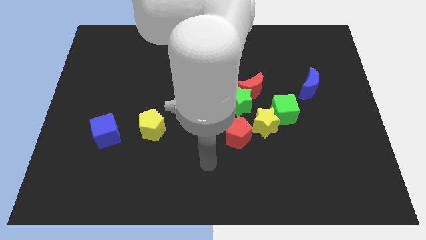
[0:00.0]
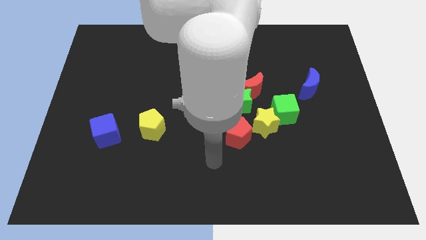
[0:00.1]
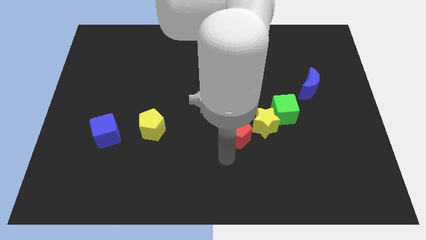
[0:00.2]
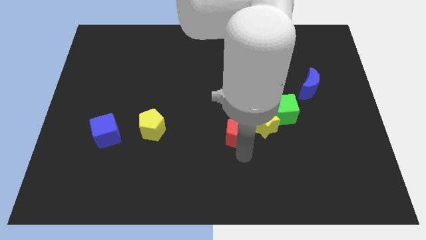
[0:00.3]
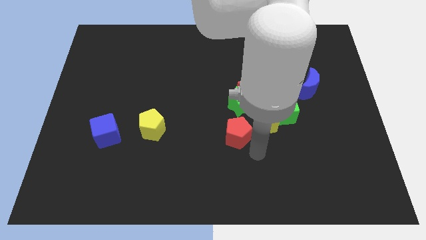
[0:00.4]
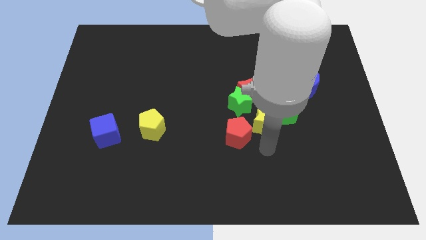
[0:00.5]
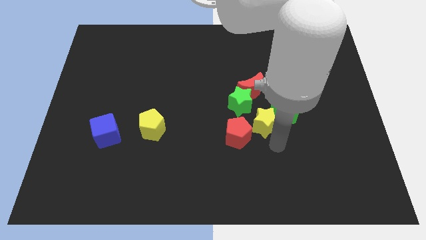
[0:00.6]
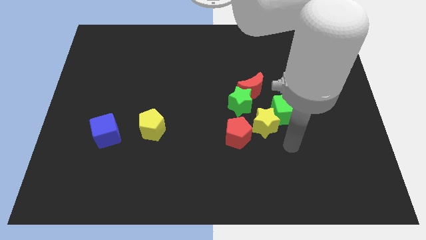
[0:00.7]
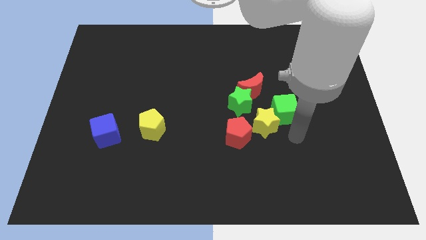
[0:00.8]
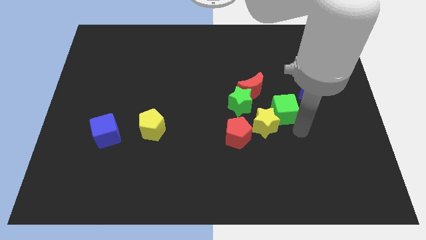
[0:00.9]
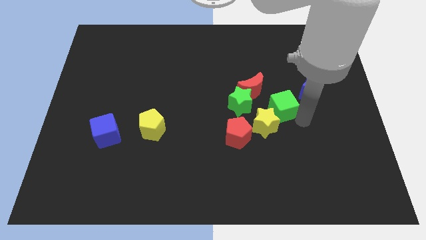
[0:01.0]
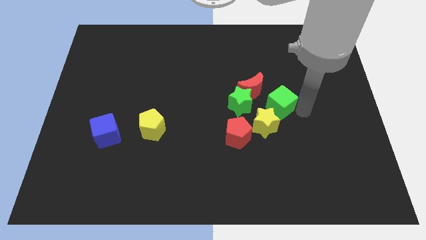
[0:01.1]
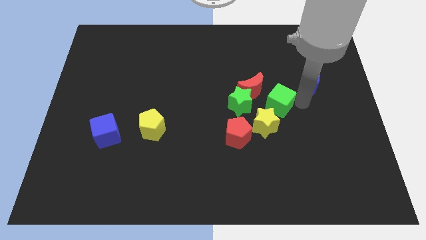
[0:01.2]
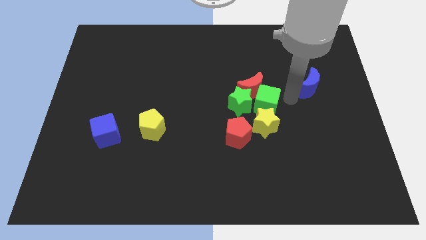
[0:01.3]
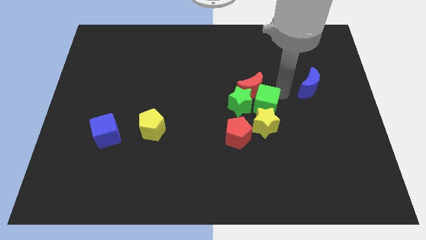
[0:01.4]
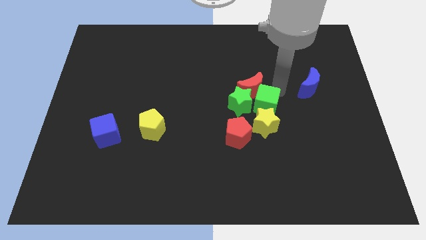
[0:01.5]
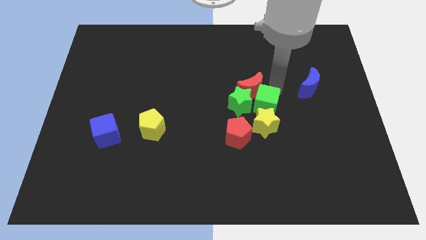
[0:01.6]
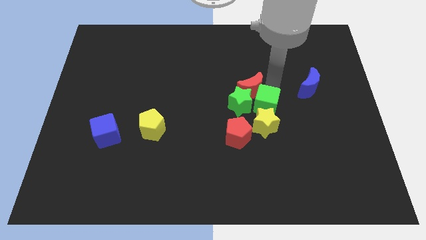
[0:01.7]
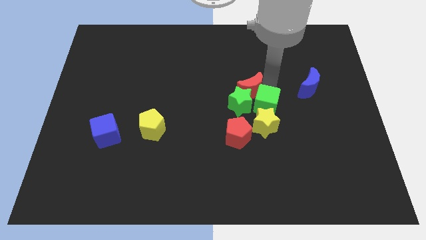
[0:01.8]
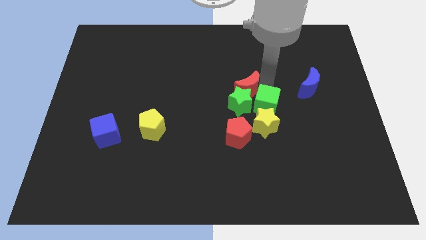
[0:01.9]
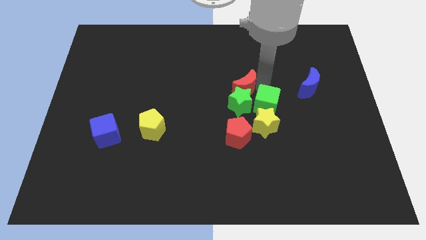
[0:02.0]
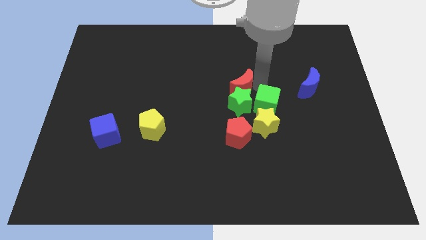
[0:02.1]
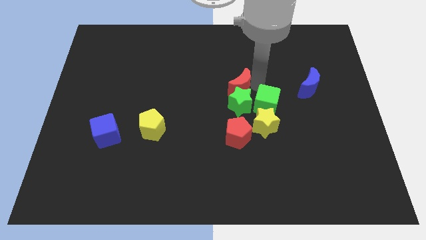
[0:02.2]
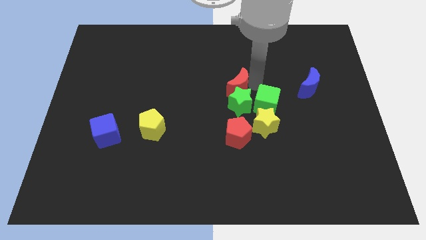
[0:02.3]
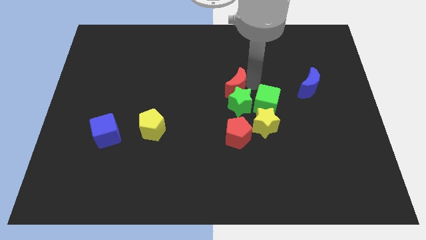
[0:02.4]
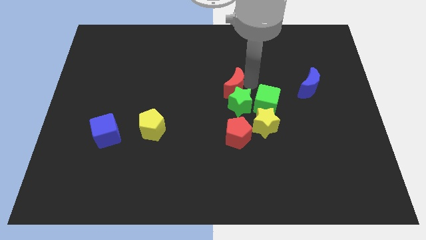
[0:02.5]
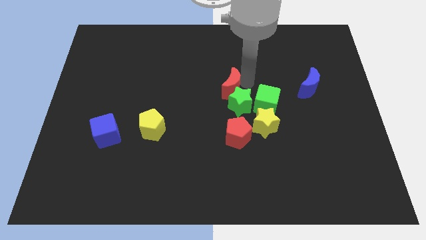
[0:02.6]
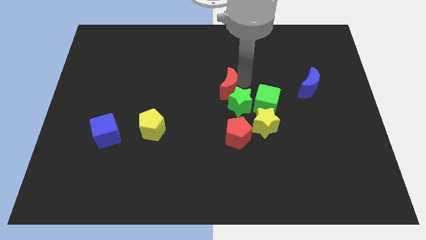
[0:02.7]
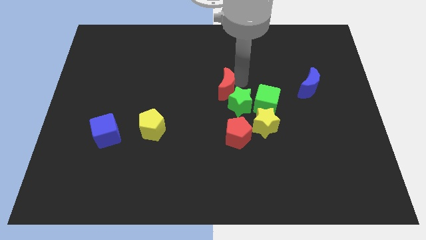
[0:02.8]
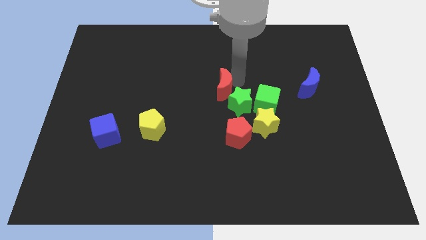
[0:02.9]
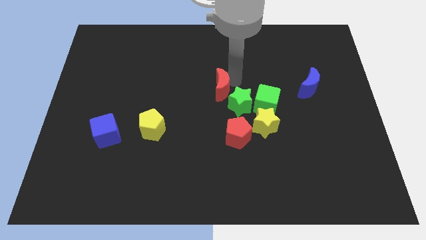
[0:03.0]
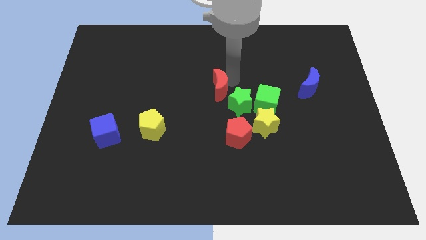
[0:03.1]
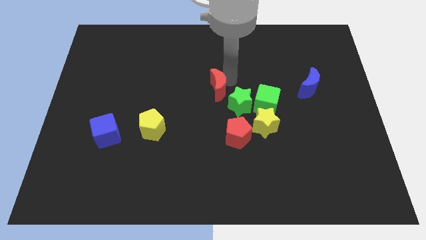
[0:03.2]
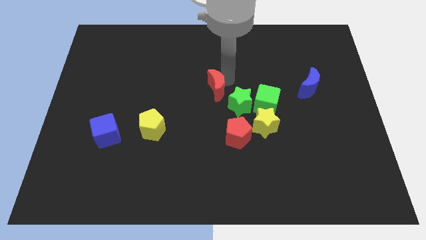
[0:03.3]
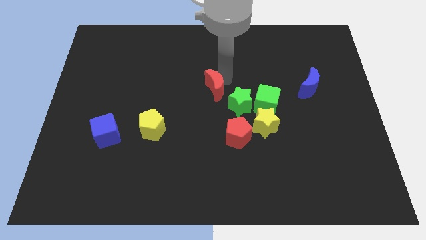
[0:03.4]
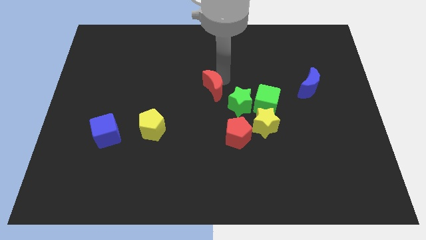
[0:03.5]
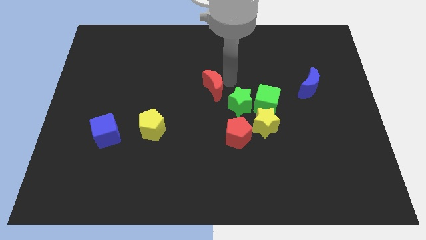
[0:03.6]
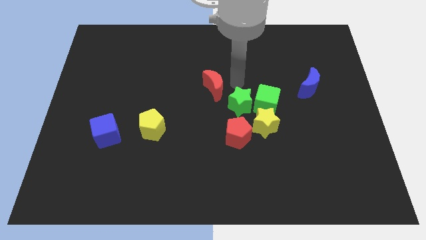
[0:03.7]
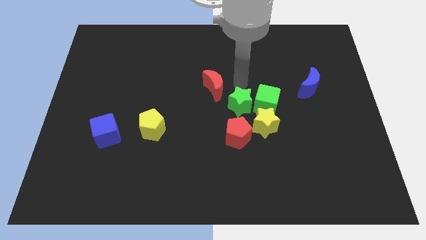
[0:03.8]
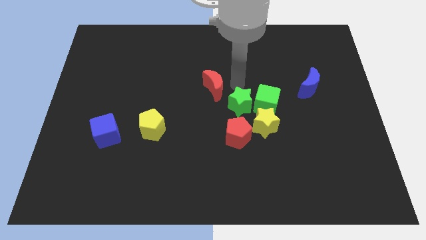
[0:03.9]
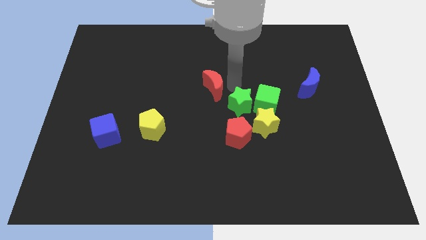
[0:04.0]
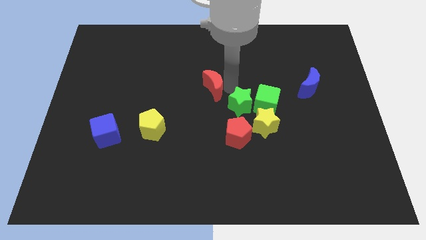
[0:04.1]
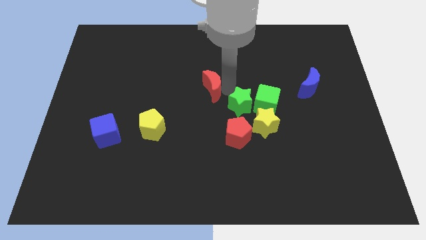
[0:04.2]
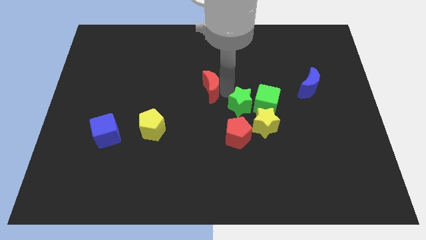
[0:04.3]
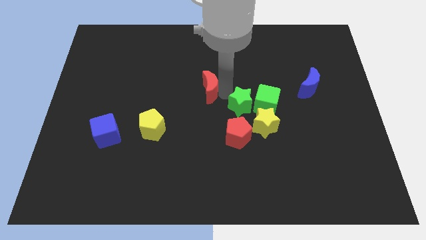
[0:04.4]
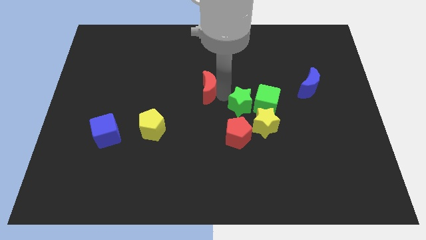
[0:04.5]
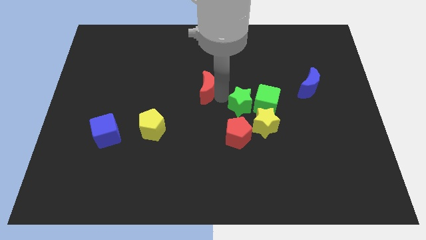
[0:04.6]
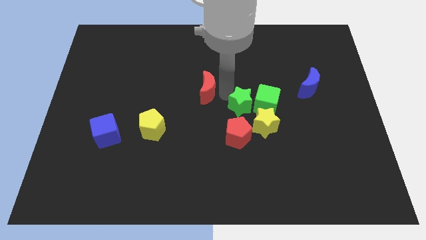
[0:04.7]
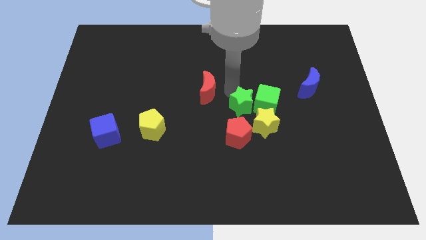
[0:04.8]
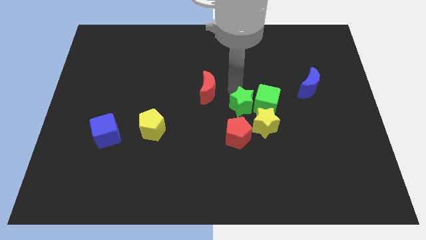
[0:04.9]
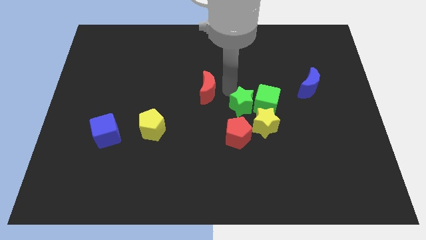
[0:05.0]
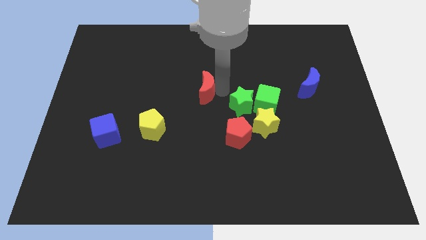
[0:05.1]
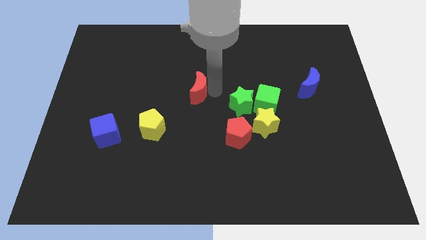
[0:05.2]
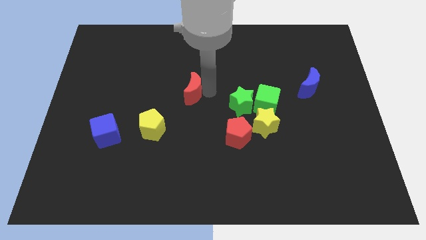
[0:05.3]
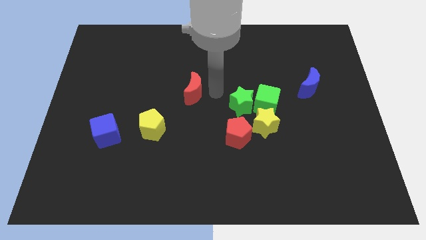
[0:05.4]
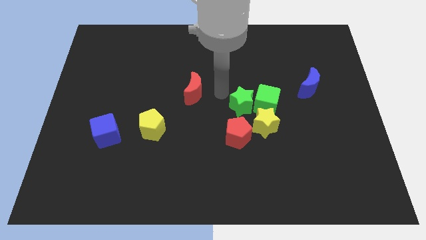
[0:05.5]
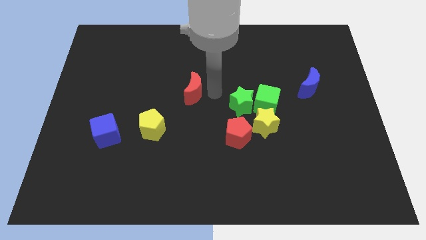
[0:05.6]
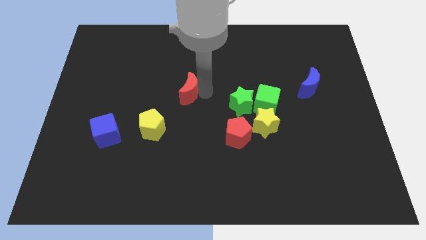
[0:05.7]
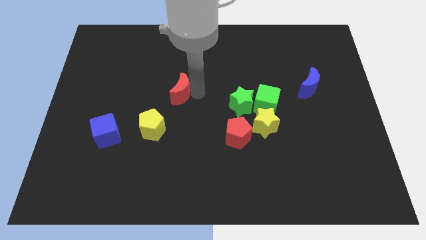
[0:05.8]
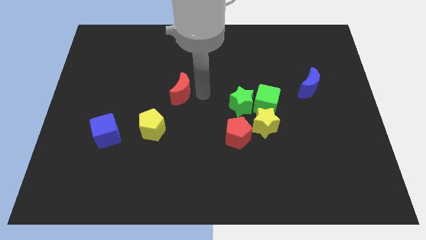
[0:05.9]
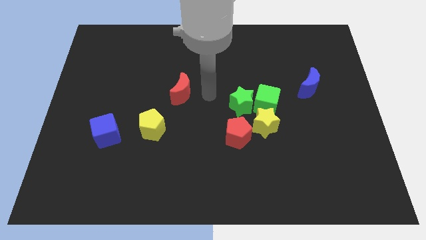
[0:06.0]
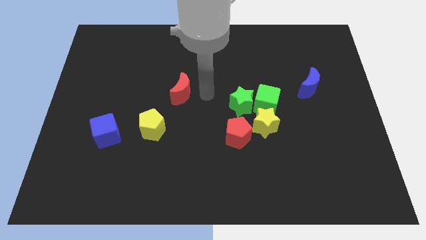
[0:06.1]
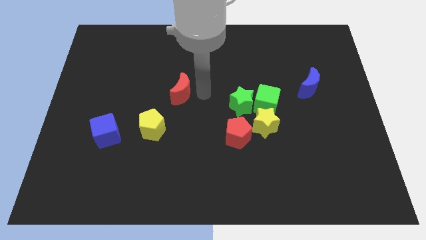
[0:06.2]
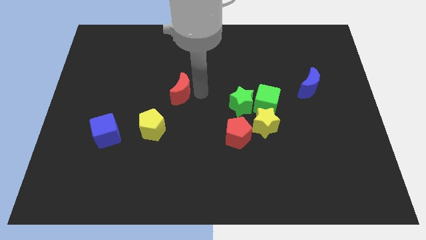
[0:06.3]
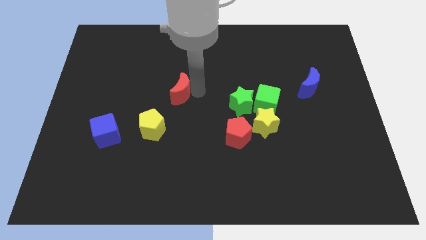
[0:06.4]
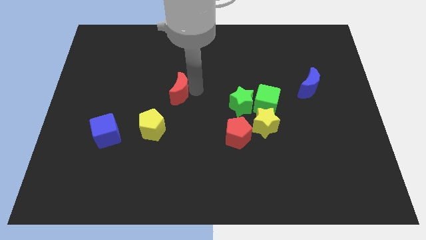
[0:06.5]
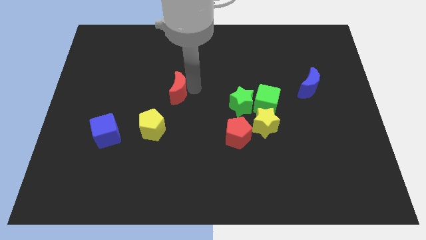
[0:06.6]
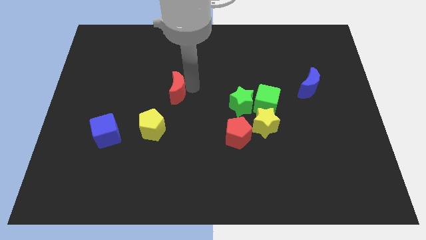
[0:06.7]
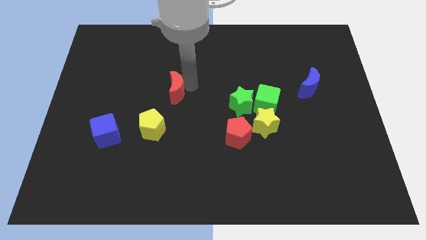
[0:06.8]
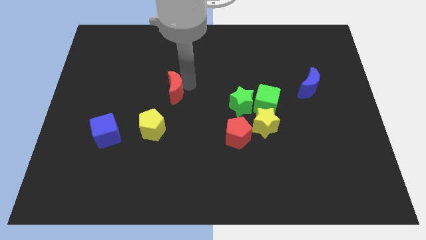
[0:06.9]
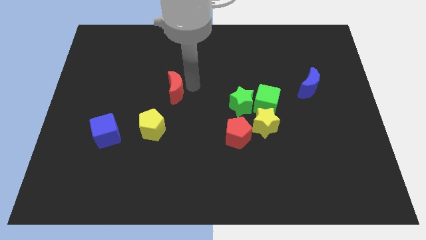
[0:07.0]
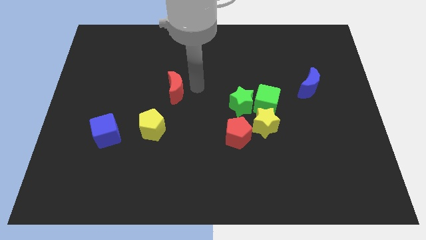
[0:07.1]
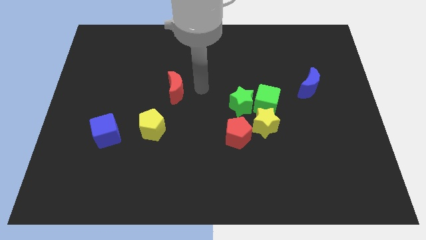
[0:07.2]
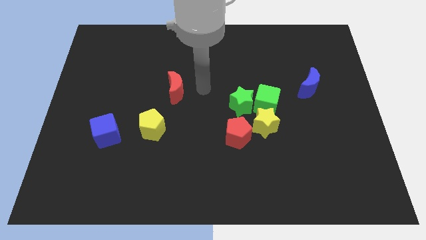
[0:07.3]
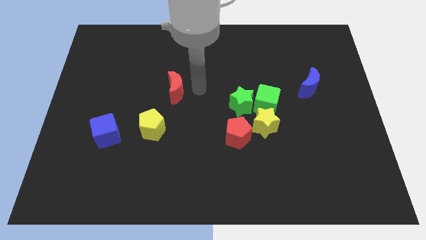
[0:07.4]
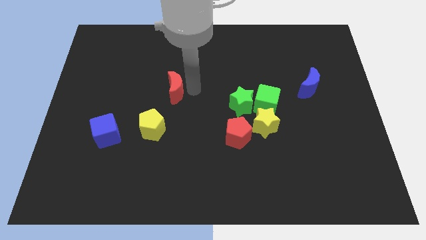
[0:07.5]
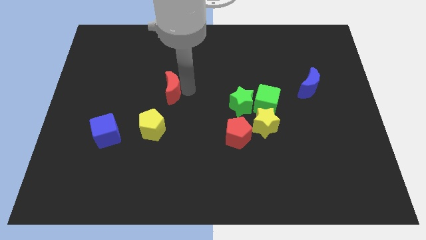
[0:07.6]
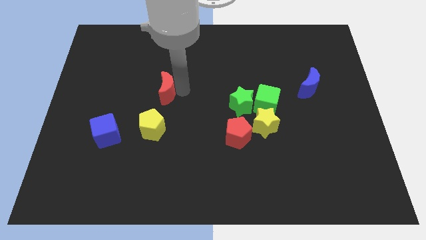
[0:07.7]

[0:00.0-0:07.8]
push the red moon to the left

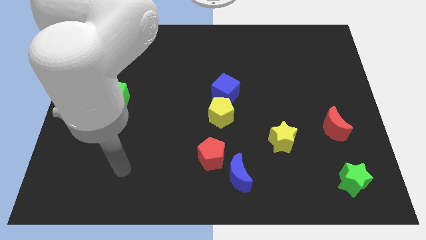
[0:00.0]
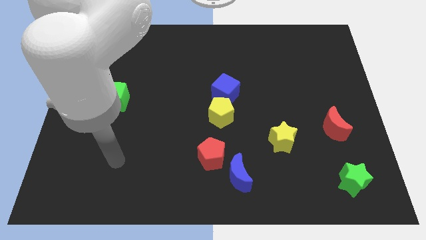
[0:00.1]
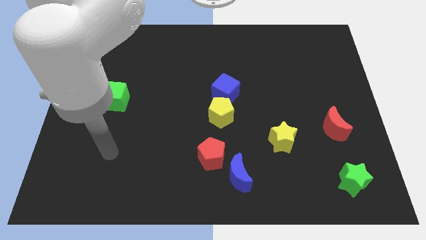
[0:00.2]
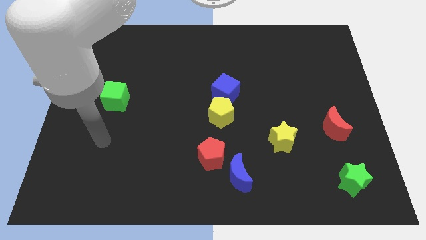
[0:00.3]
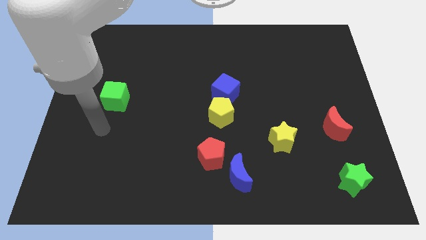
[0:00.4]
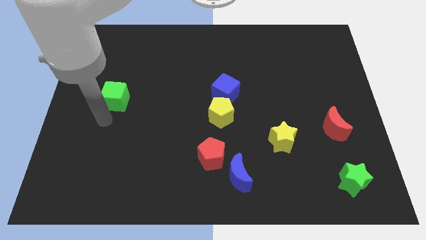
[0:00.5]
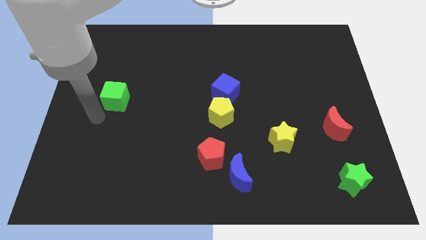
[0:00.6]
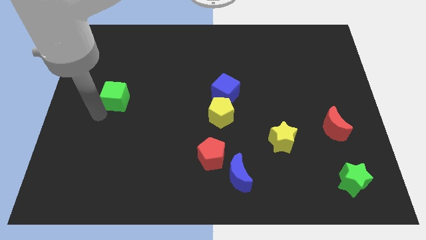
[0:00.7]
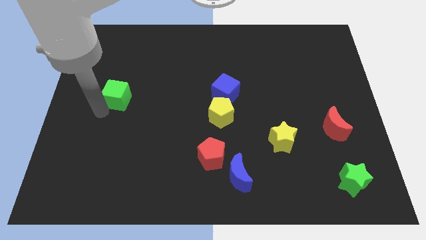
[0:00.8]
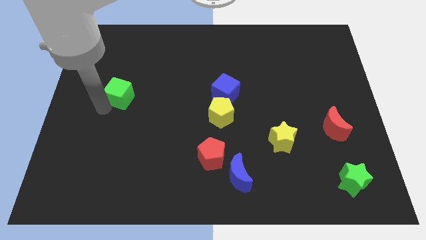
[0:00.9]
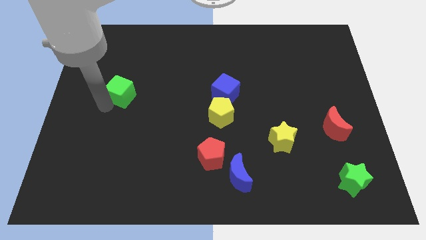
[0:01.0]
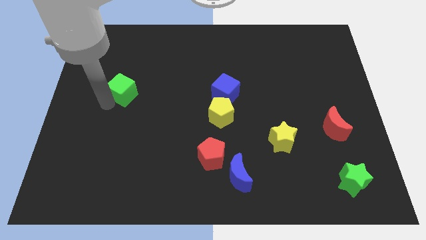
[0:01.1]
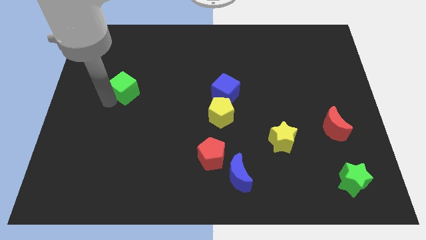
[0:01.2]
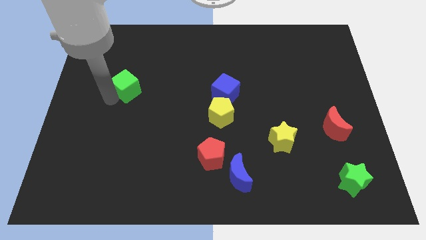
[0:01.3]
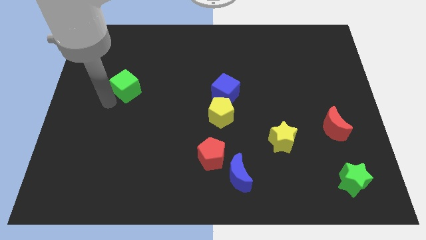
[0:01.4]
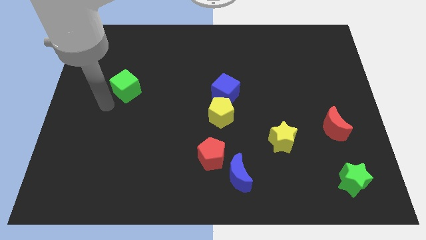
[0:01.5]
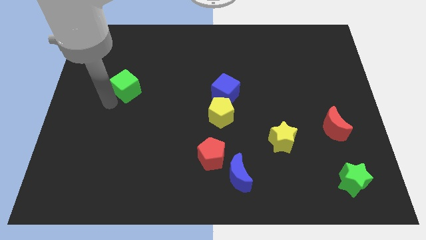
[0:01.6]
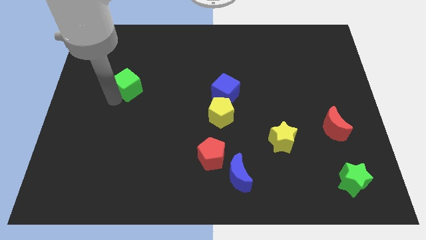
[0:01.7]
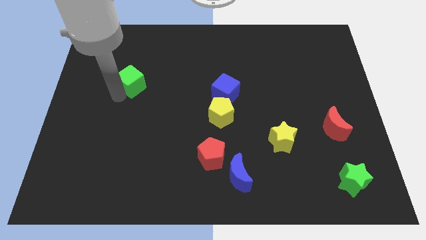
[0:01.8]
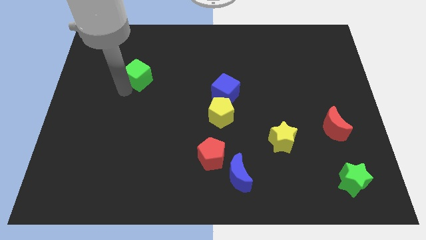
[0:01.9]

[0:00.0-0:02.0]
slide the green cube a little upwards and then to the right
